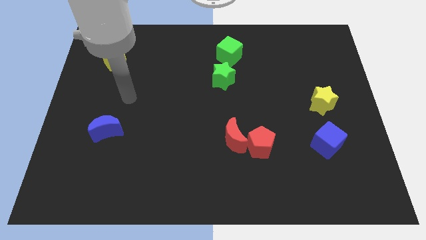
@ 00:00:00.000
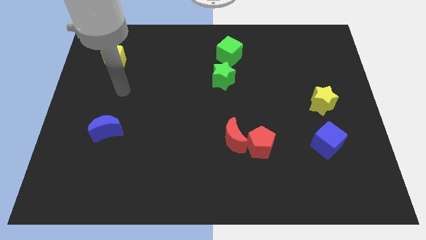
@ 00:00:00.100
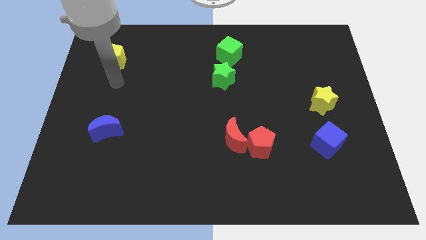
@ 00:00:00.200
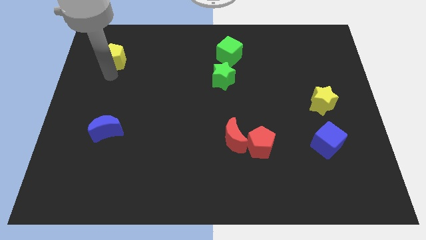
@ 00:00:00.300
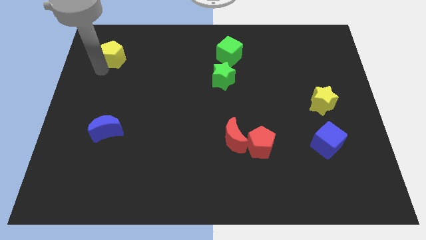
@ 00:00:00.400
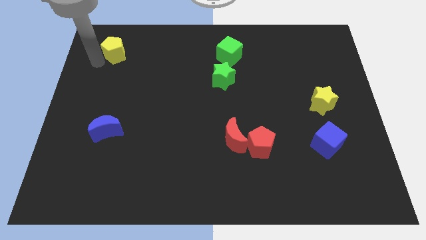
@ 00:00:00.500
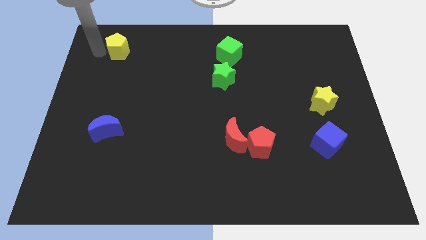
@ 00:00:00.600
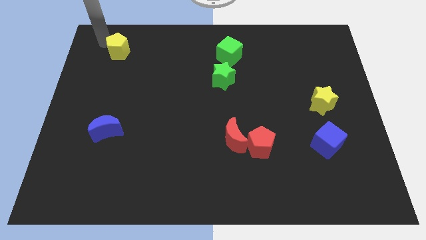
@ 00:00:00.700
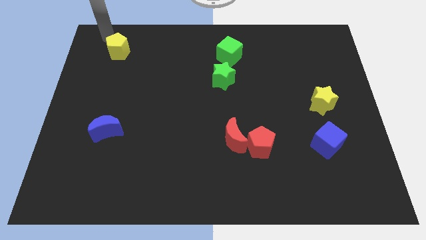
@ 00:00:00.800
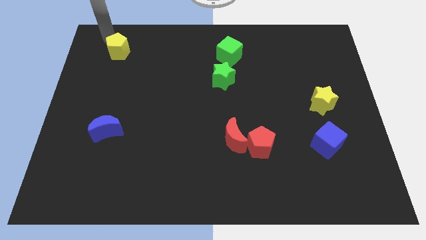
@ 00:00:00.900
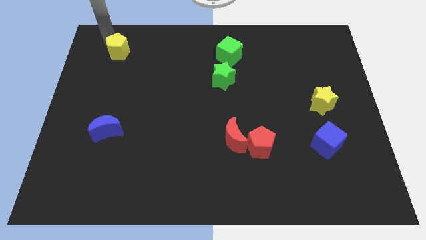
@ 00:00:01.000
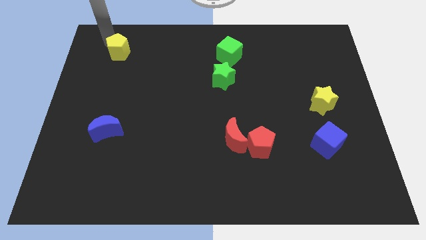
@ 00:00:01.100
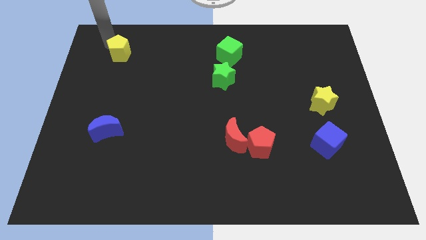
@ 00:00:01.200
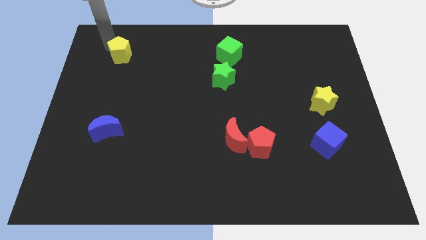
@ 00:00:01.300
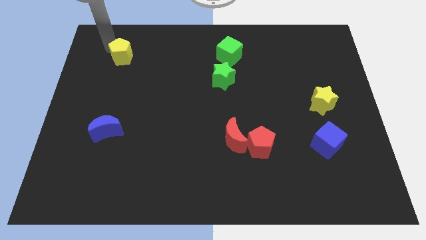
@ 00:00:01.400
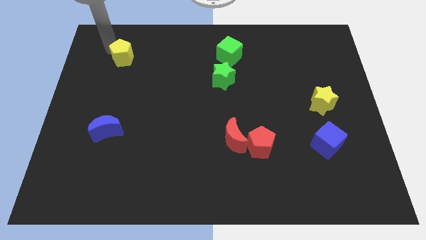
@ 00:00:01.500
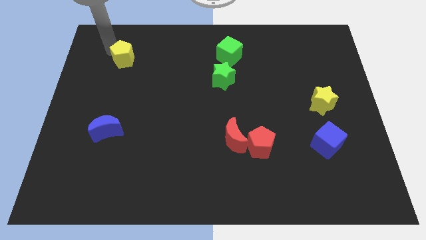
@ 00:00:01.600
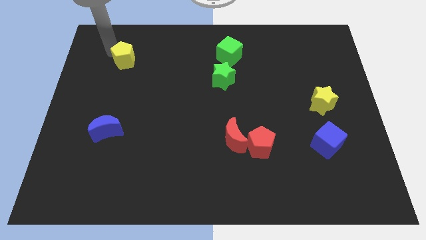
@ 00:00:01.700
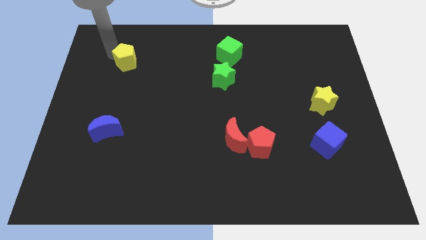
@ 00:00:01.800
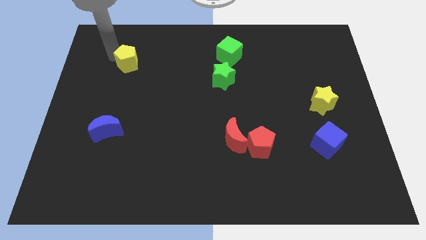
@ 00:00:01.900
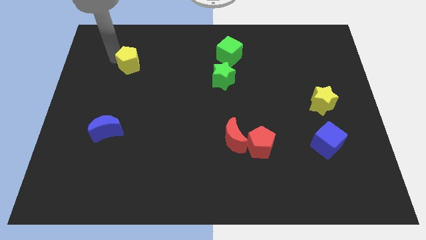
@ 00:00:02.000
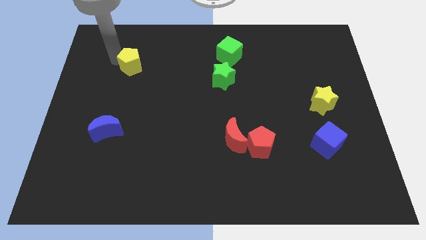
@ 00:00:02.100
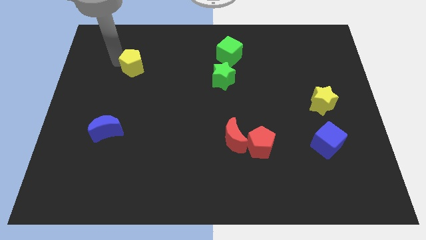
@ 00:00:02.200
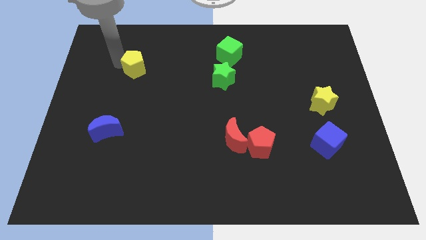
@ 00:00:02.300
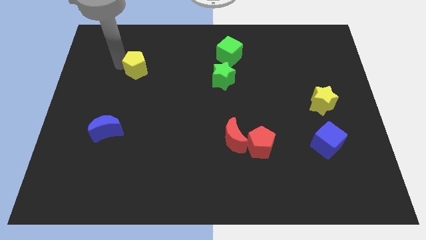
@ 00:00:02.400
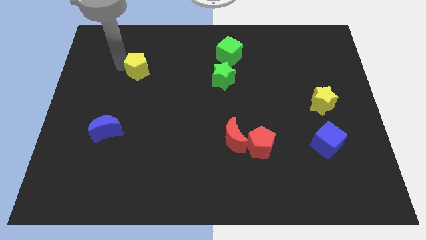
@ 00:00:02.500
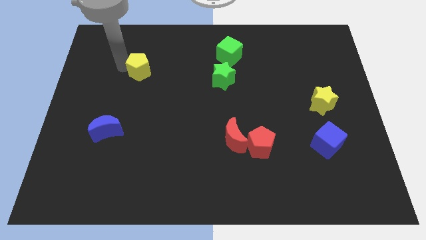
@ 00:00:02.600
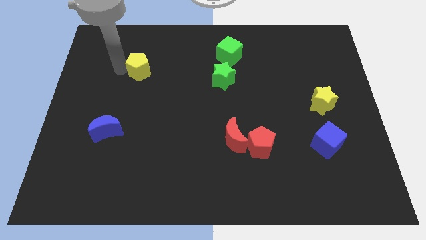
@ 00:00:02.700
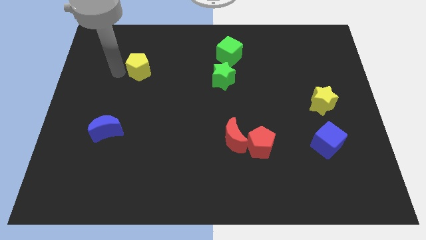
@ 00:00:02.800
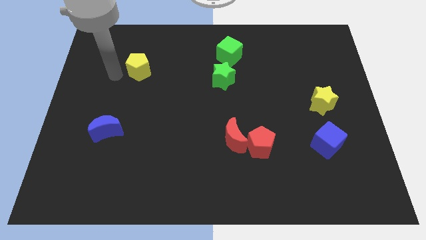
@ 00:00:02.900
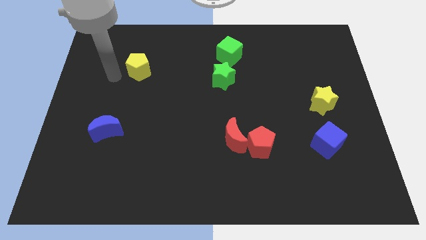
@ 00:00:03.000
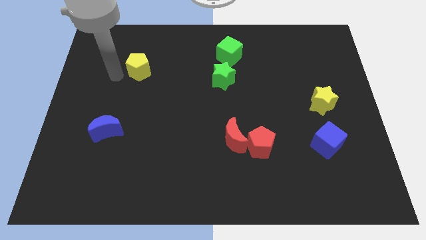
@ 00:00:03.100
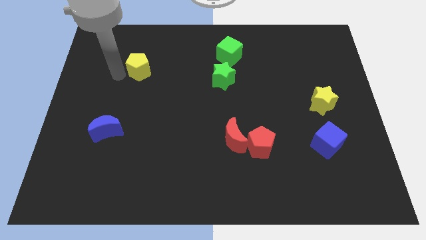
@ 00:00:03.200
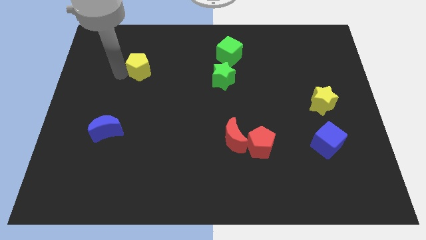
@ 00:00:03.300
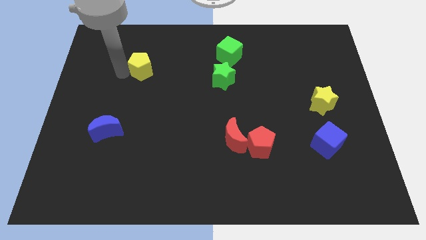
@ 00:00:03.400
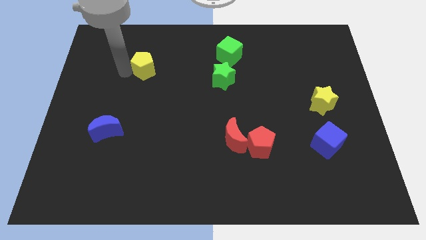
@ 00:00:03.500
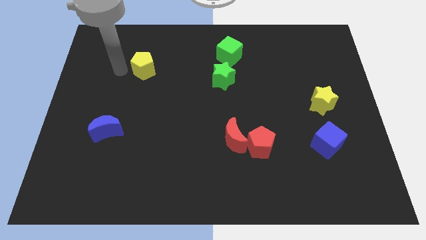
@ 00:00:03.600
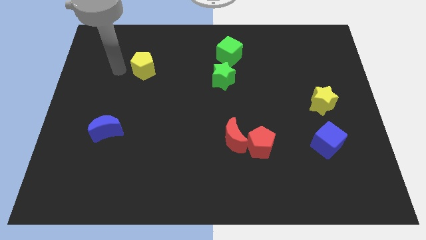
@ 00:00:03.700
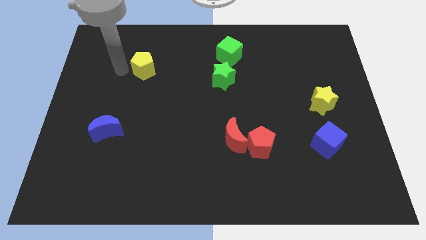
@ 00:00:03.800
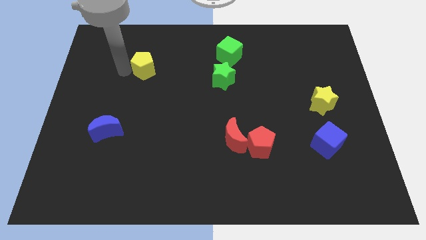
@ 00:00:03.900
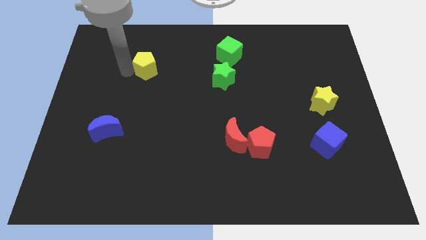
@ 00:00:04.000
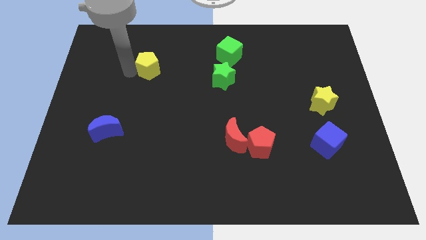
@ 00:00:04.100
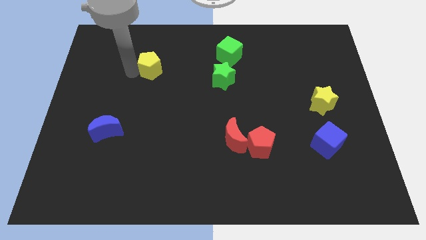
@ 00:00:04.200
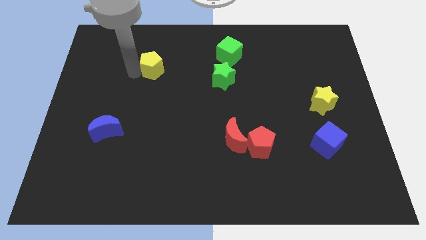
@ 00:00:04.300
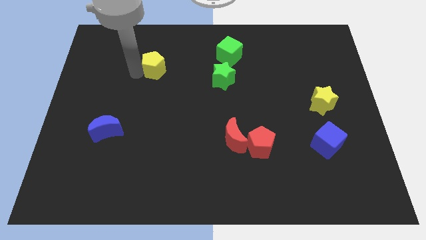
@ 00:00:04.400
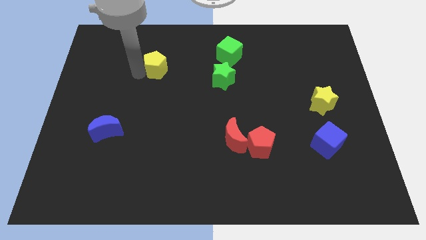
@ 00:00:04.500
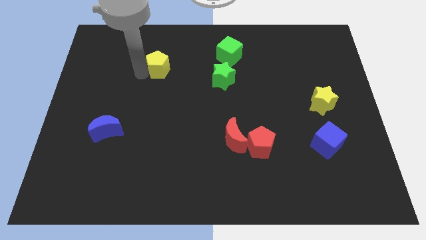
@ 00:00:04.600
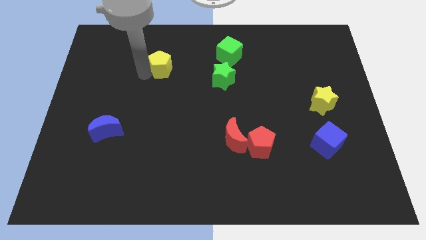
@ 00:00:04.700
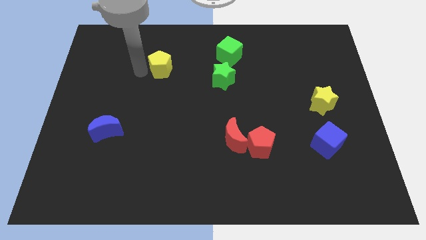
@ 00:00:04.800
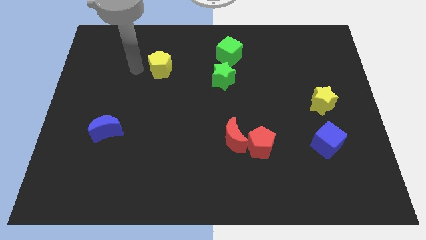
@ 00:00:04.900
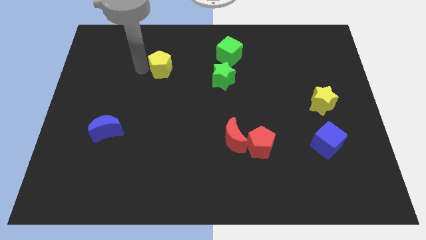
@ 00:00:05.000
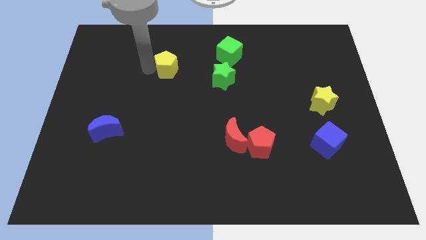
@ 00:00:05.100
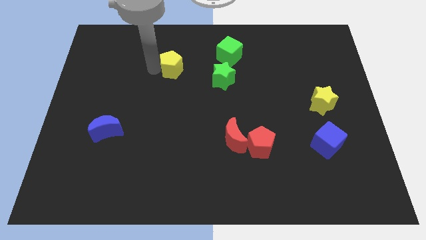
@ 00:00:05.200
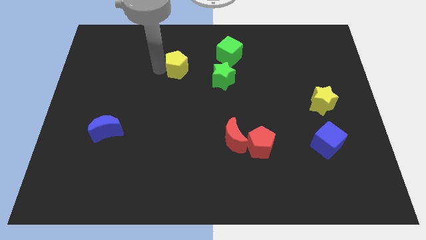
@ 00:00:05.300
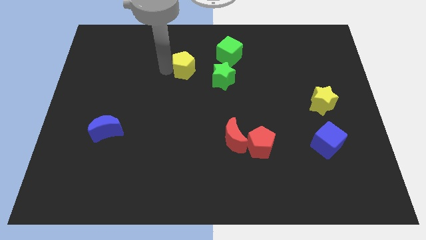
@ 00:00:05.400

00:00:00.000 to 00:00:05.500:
push the yellow pentagon to the top left side of the green star
